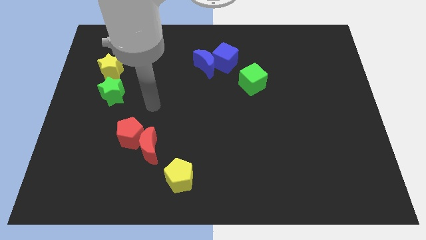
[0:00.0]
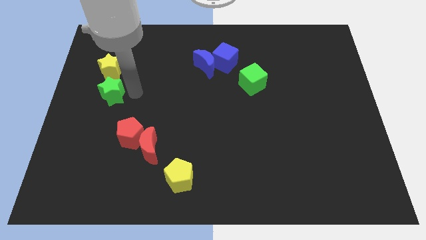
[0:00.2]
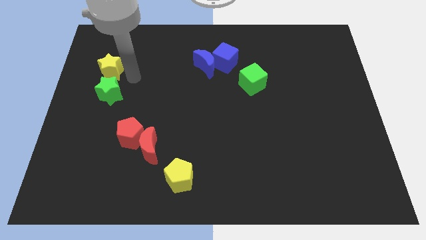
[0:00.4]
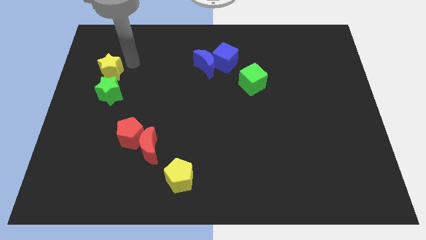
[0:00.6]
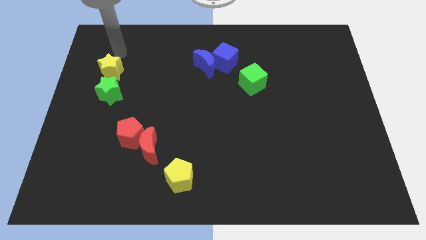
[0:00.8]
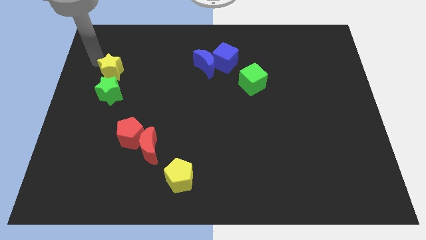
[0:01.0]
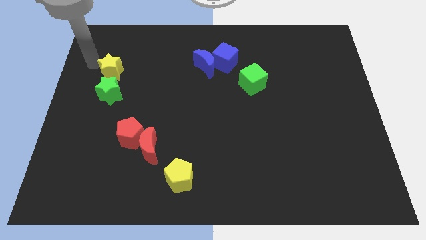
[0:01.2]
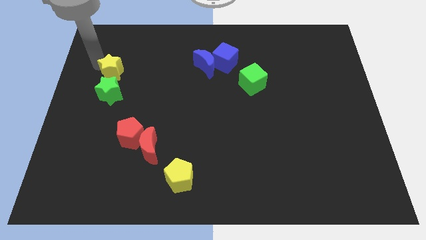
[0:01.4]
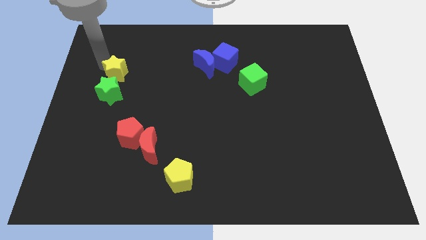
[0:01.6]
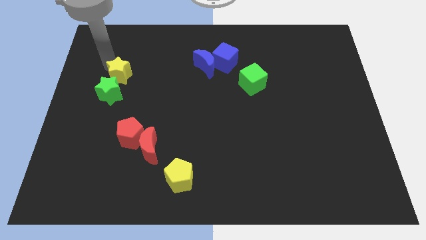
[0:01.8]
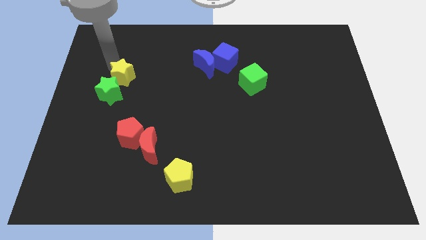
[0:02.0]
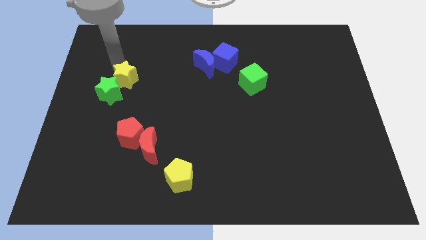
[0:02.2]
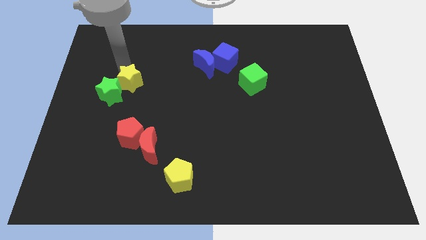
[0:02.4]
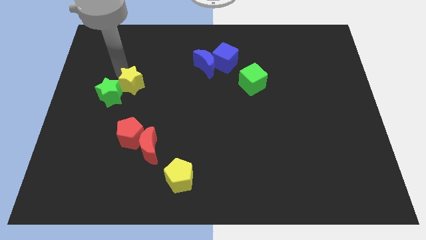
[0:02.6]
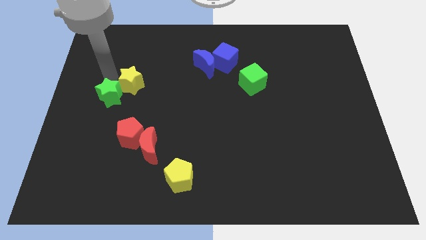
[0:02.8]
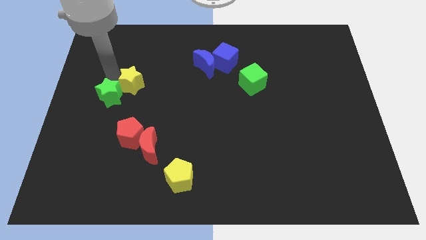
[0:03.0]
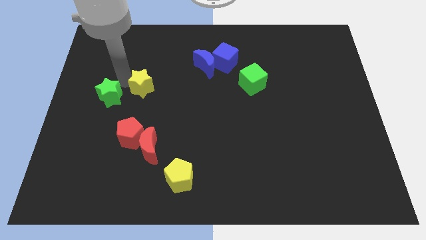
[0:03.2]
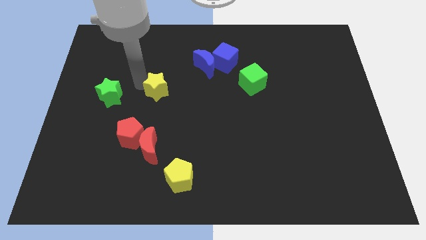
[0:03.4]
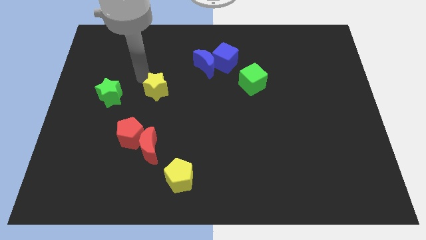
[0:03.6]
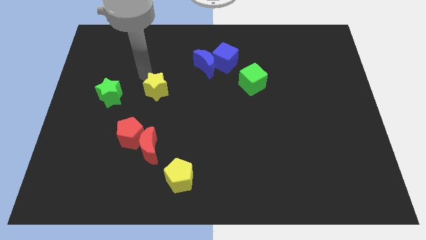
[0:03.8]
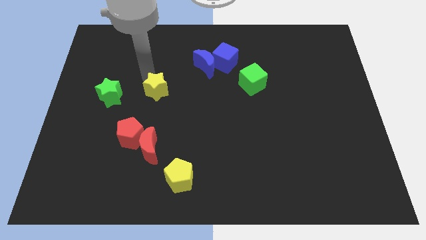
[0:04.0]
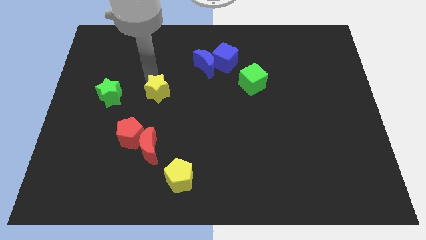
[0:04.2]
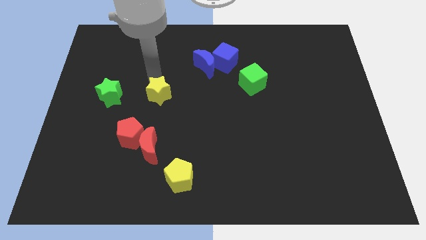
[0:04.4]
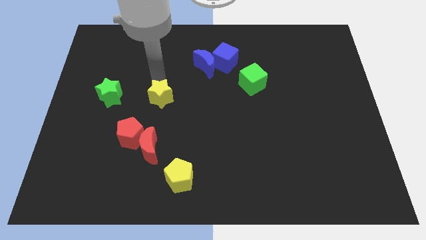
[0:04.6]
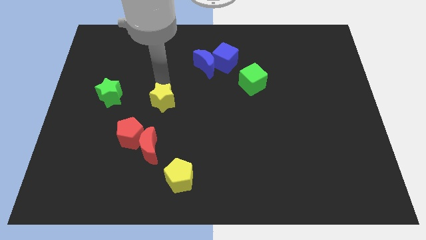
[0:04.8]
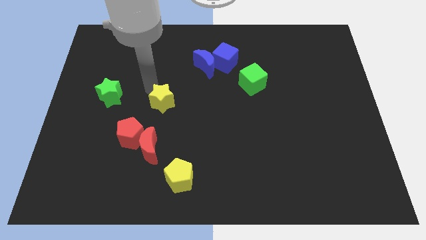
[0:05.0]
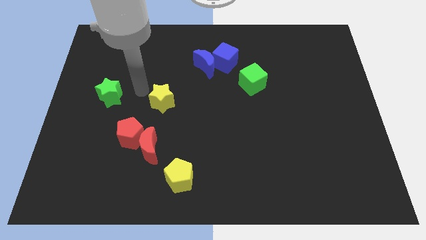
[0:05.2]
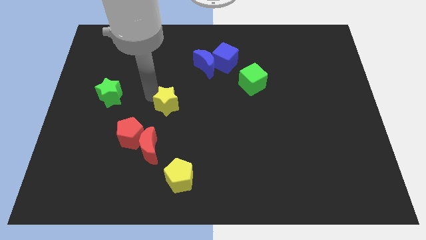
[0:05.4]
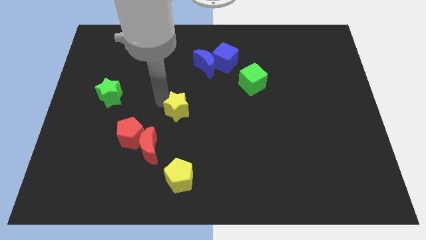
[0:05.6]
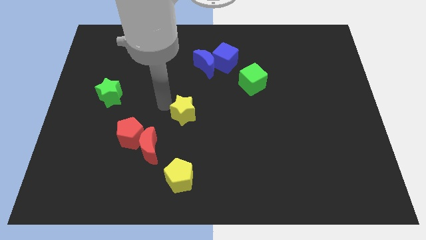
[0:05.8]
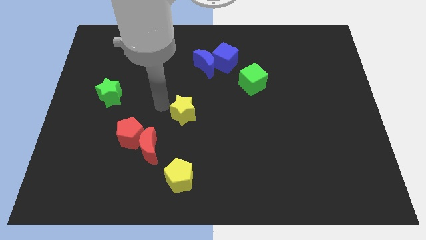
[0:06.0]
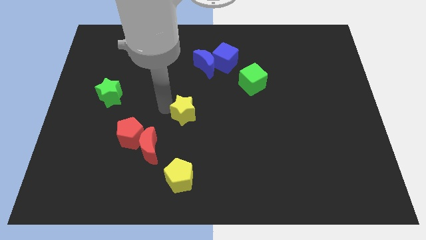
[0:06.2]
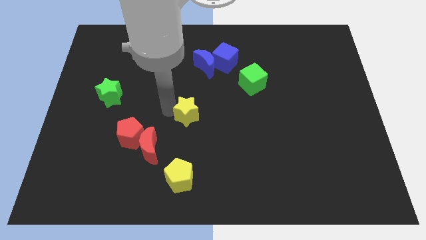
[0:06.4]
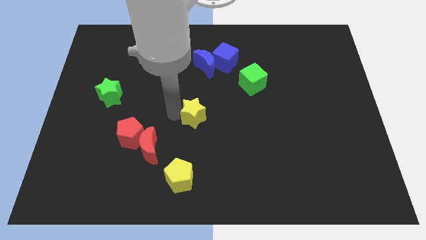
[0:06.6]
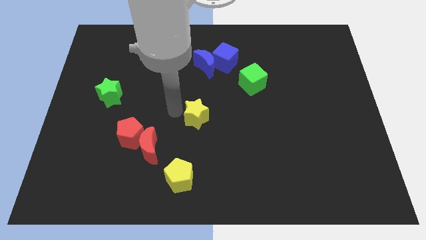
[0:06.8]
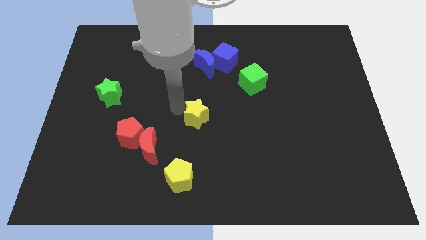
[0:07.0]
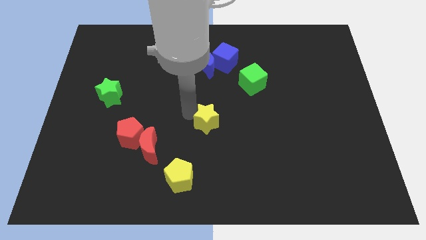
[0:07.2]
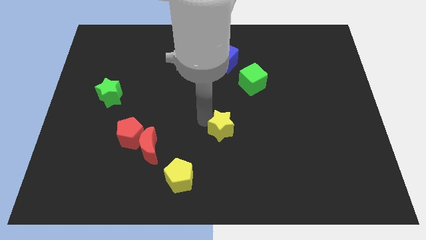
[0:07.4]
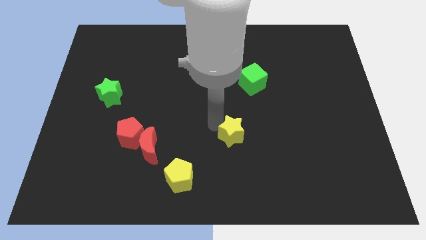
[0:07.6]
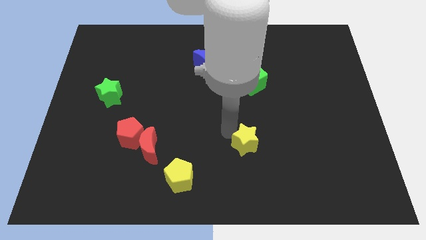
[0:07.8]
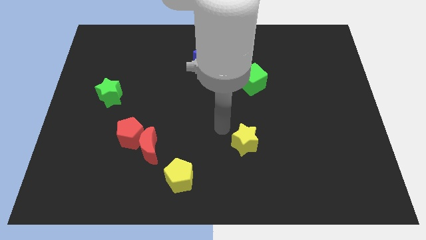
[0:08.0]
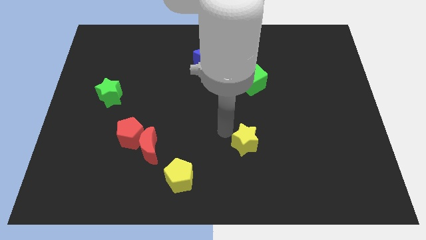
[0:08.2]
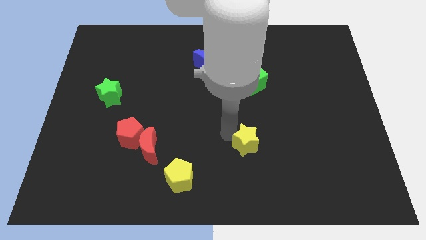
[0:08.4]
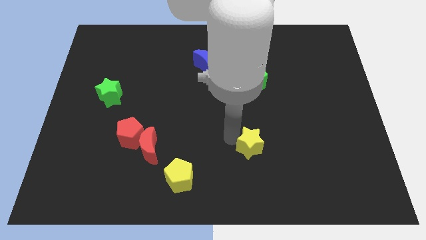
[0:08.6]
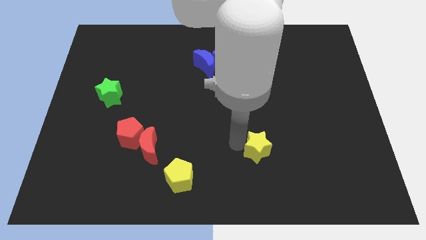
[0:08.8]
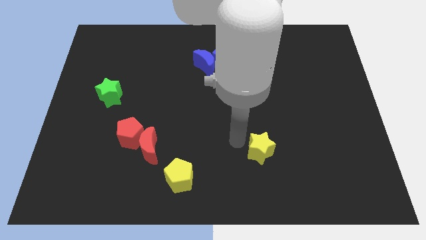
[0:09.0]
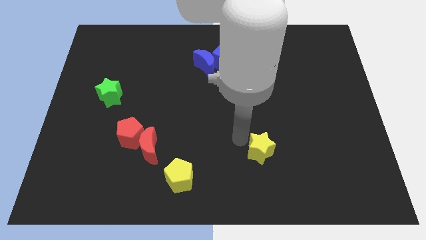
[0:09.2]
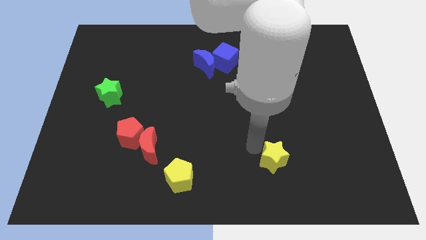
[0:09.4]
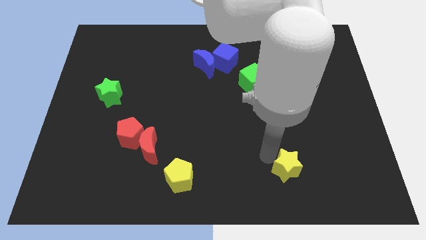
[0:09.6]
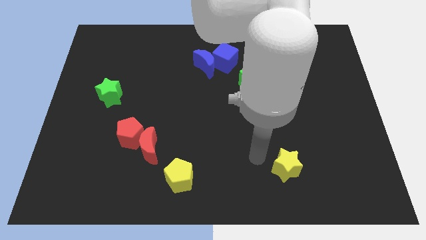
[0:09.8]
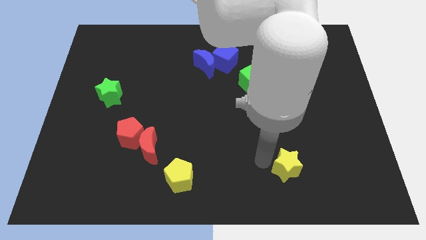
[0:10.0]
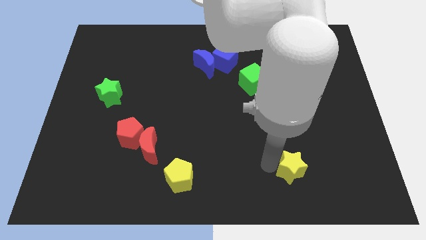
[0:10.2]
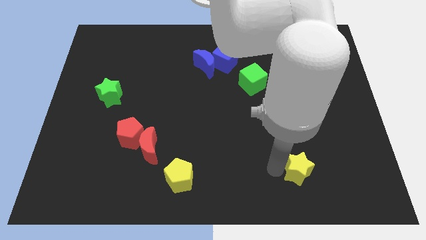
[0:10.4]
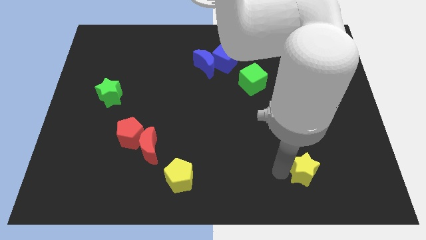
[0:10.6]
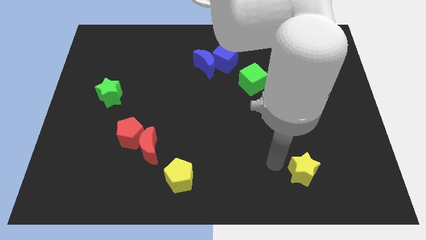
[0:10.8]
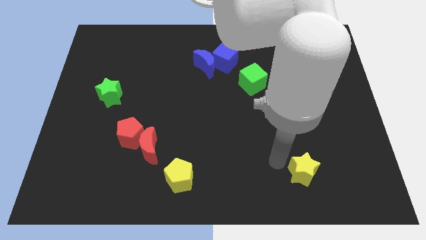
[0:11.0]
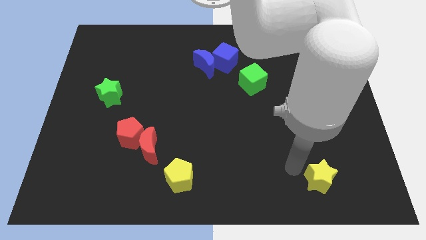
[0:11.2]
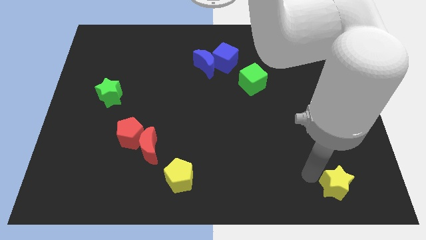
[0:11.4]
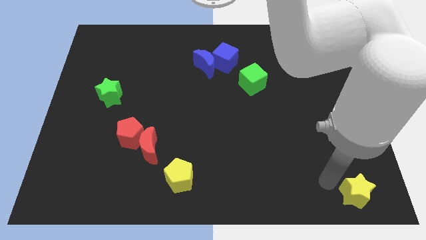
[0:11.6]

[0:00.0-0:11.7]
move the yellow star to the bottom right corner

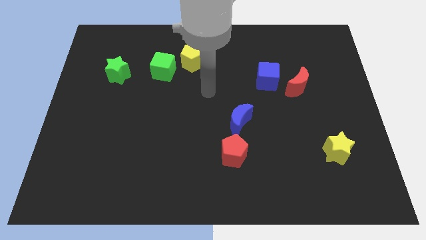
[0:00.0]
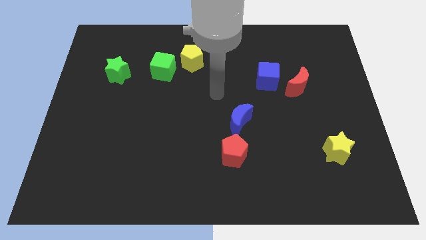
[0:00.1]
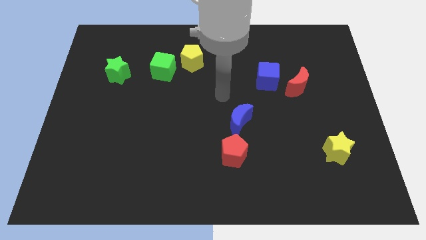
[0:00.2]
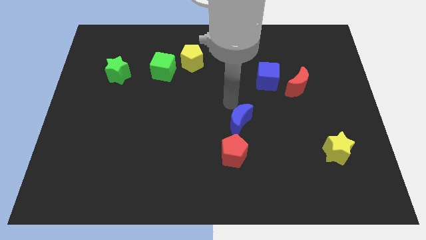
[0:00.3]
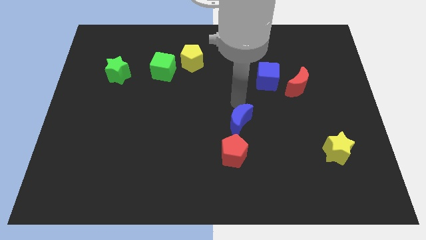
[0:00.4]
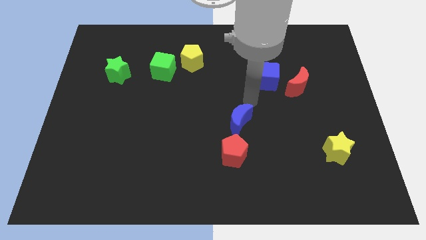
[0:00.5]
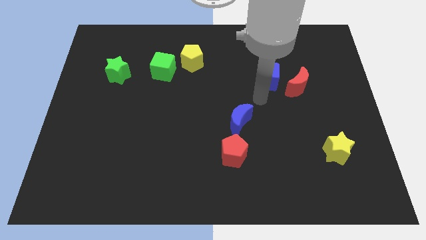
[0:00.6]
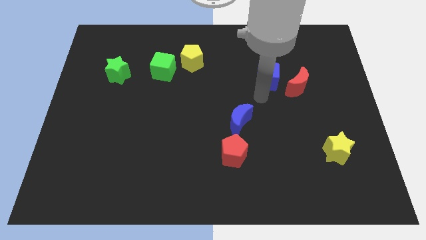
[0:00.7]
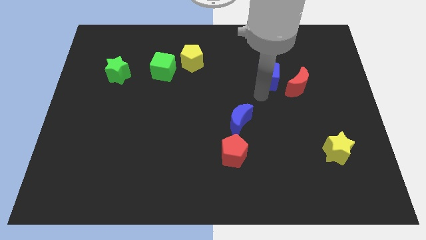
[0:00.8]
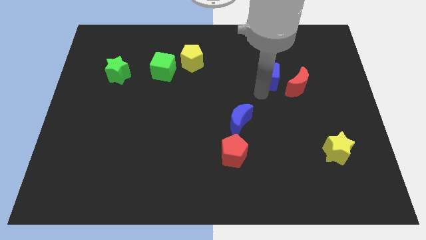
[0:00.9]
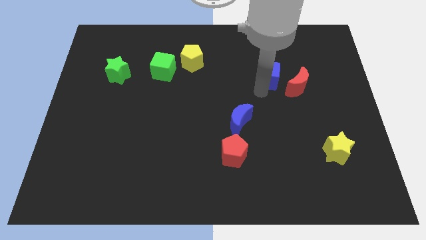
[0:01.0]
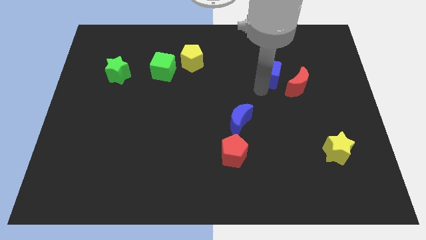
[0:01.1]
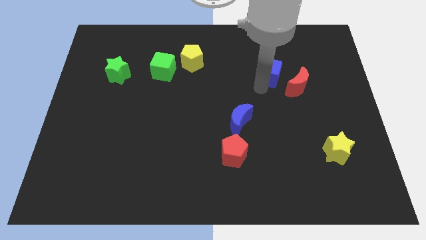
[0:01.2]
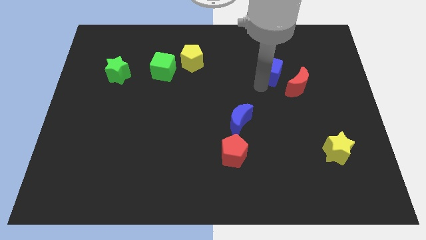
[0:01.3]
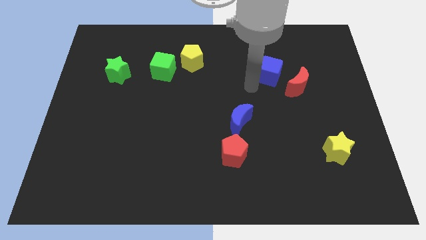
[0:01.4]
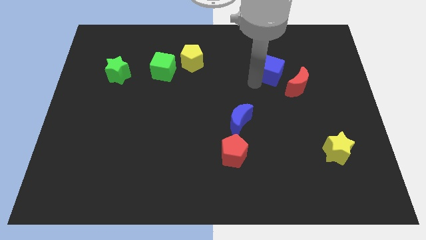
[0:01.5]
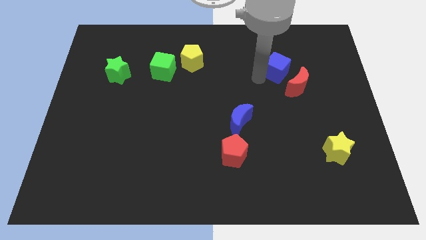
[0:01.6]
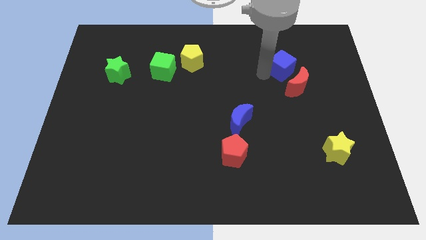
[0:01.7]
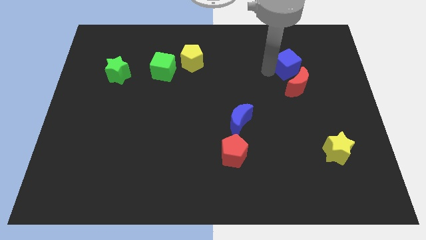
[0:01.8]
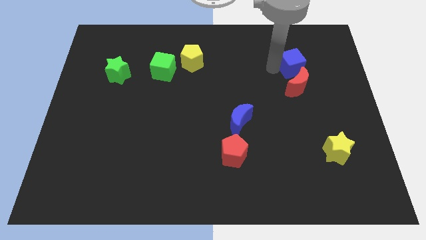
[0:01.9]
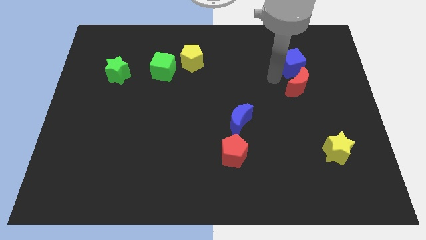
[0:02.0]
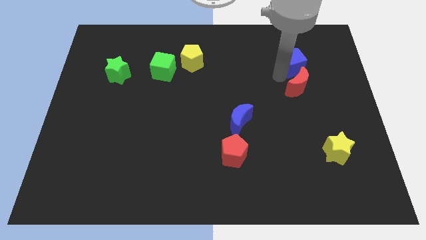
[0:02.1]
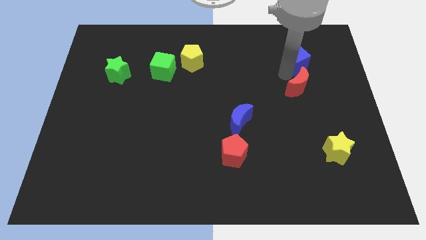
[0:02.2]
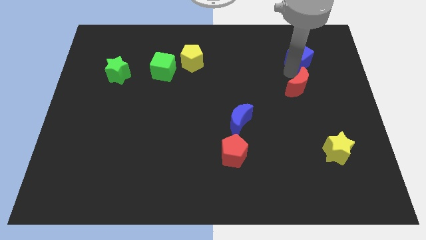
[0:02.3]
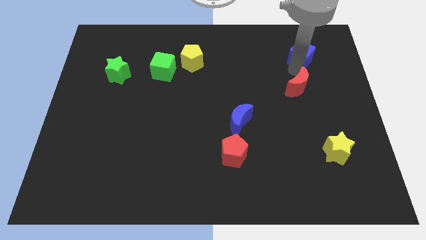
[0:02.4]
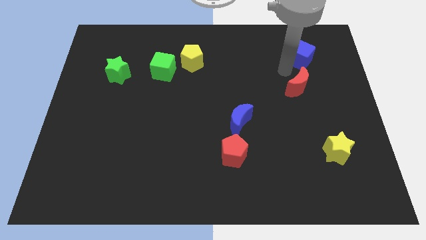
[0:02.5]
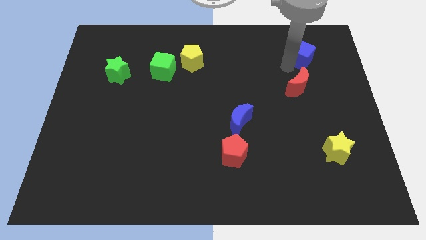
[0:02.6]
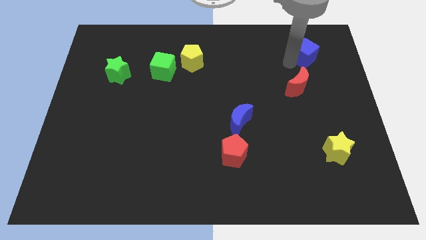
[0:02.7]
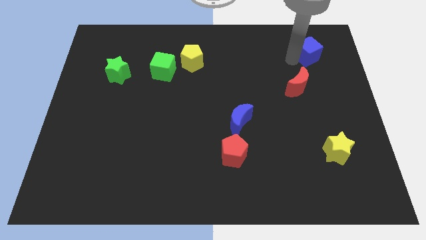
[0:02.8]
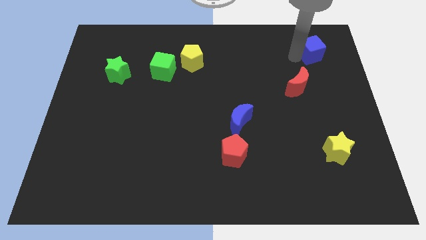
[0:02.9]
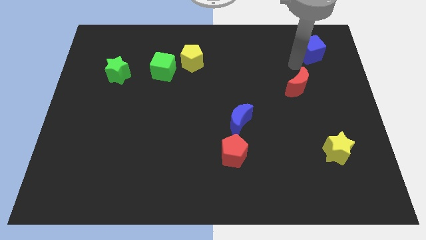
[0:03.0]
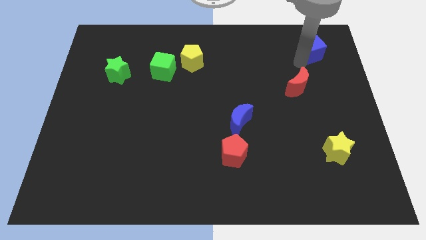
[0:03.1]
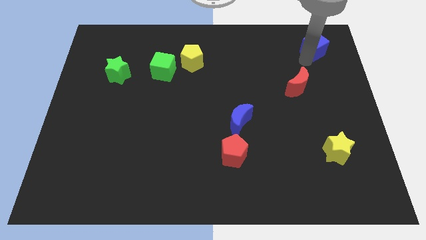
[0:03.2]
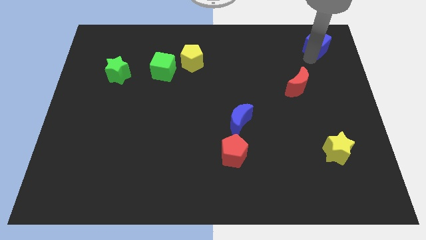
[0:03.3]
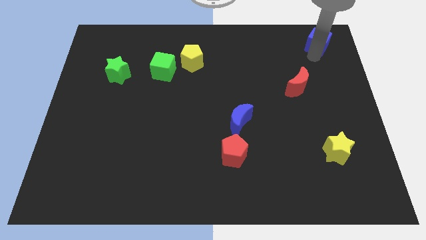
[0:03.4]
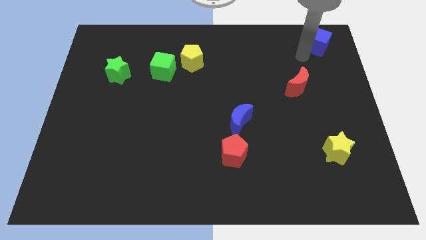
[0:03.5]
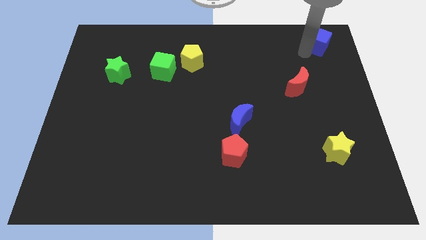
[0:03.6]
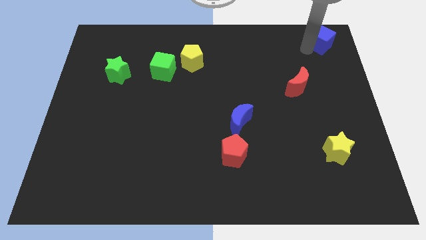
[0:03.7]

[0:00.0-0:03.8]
push the blue cube to the top right of the board
